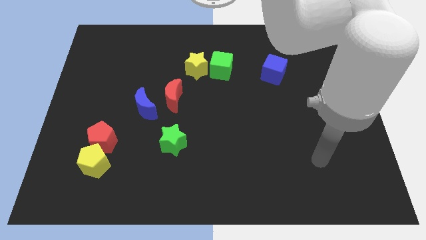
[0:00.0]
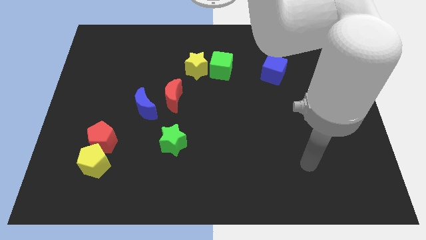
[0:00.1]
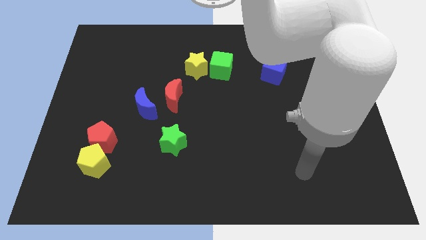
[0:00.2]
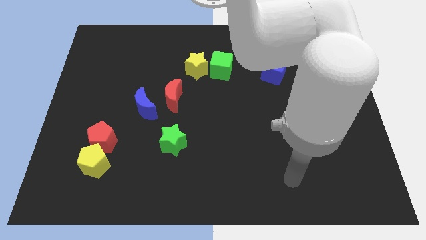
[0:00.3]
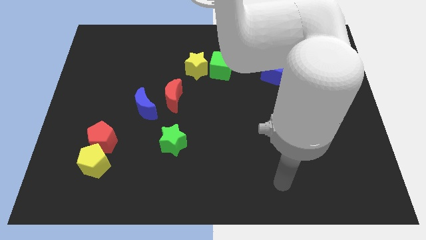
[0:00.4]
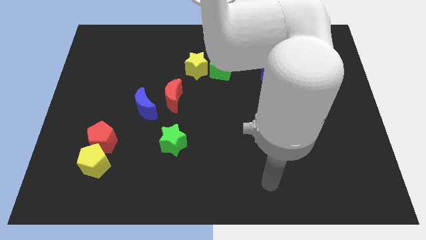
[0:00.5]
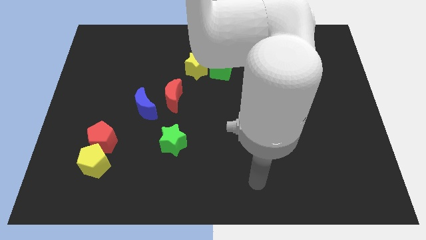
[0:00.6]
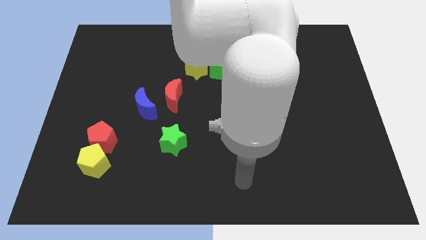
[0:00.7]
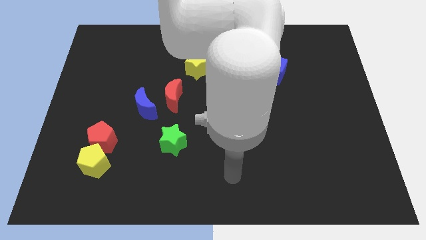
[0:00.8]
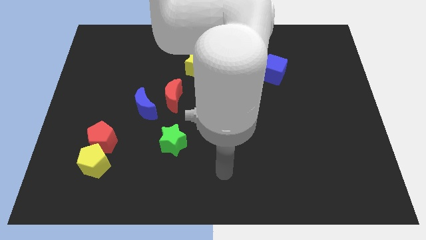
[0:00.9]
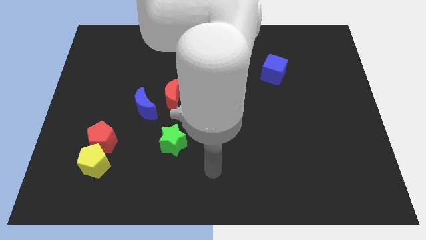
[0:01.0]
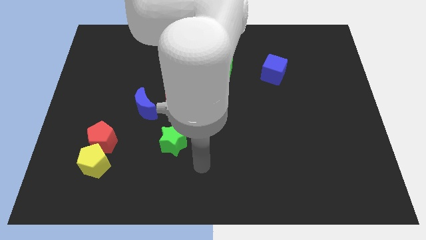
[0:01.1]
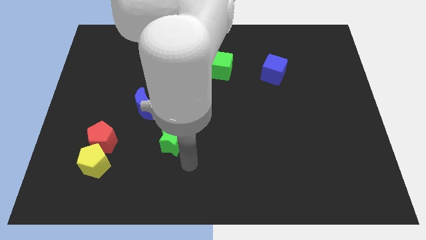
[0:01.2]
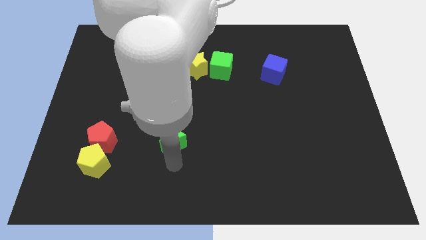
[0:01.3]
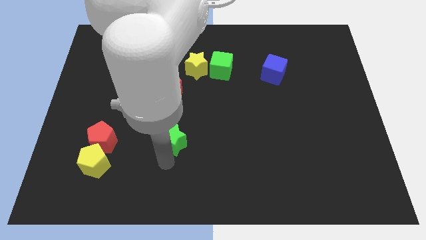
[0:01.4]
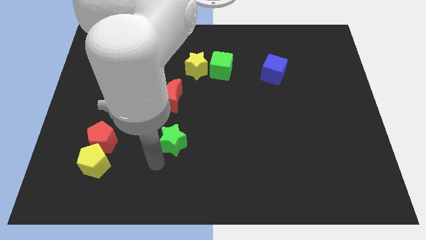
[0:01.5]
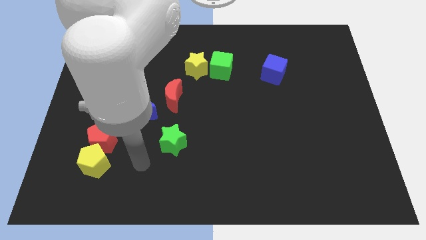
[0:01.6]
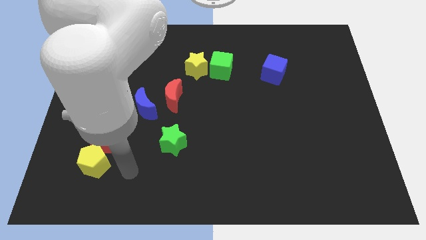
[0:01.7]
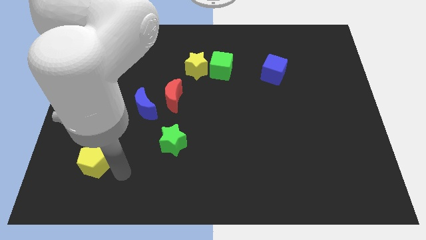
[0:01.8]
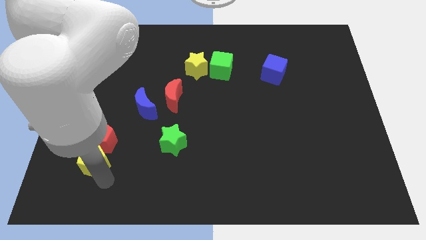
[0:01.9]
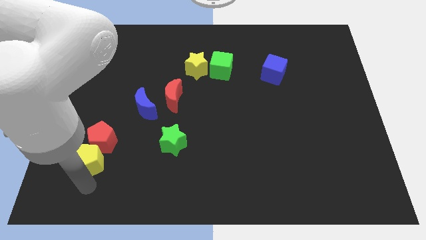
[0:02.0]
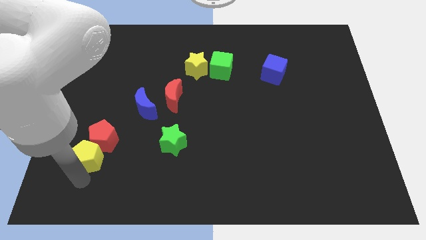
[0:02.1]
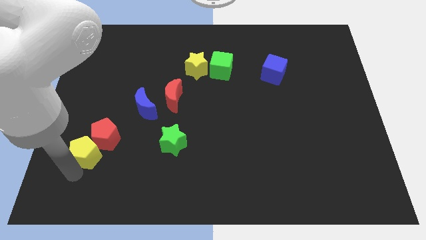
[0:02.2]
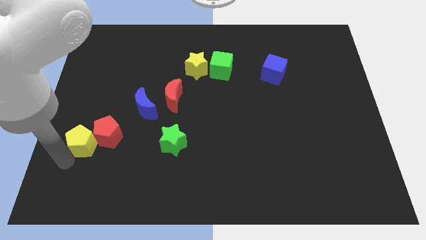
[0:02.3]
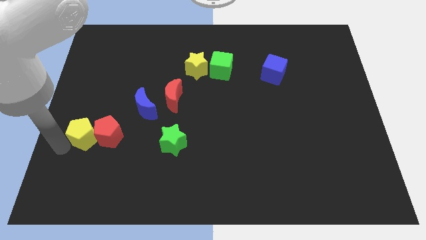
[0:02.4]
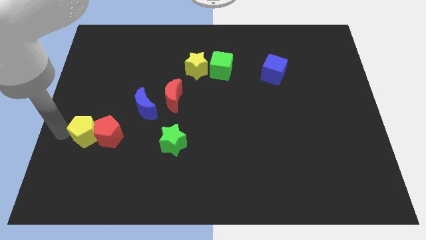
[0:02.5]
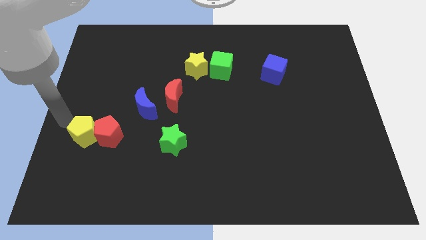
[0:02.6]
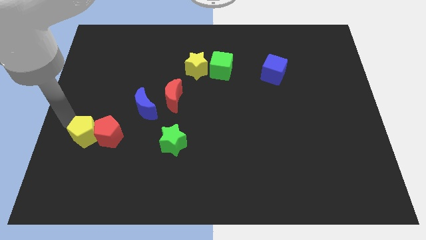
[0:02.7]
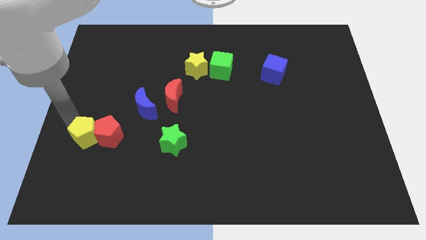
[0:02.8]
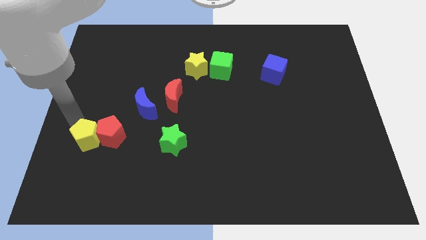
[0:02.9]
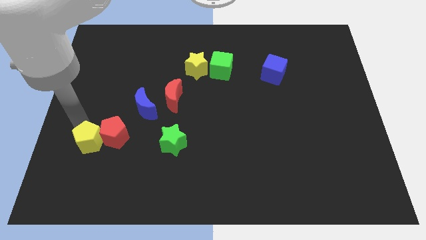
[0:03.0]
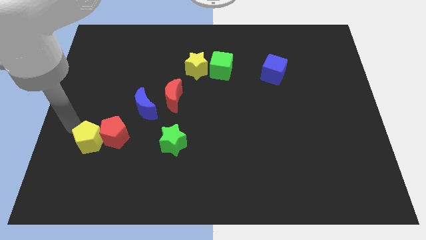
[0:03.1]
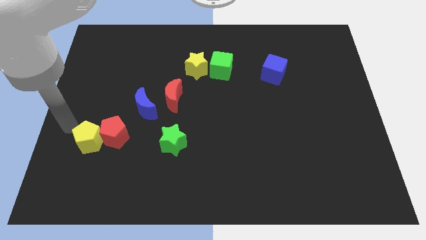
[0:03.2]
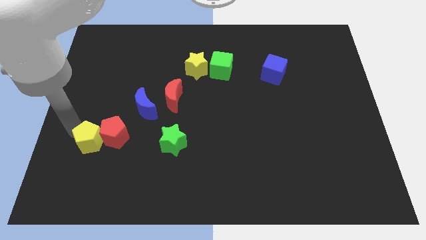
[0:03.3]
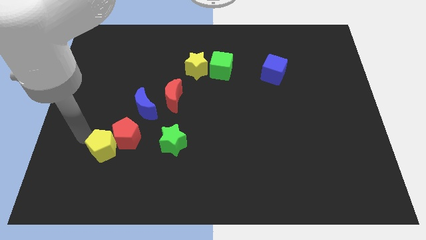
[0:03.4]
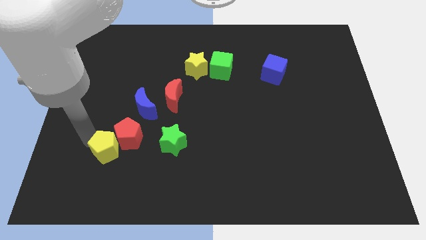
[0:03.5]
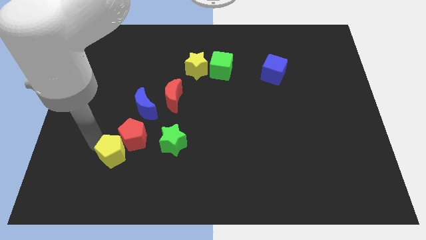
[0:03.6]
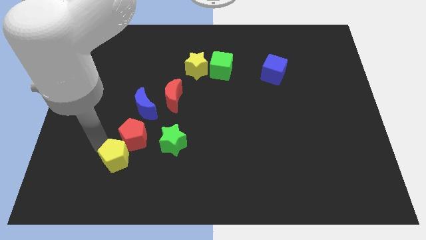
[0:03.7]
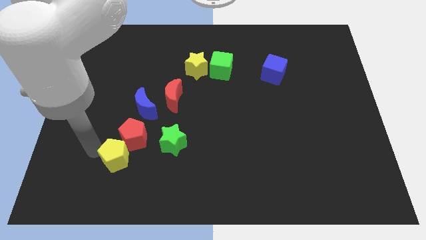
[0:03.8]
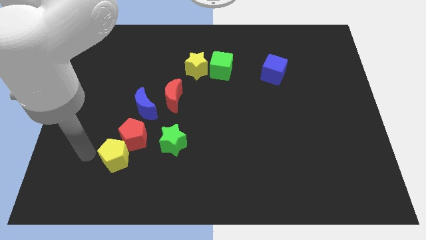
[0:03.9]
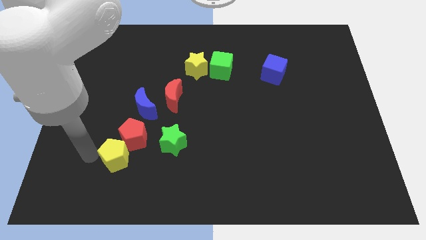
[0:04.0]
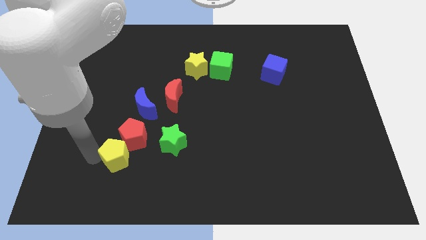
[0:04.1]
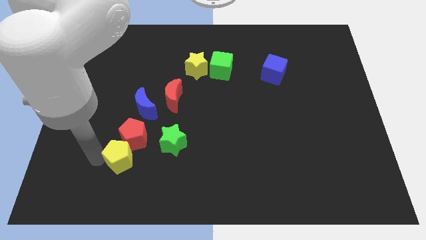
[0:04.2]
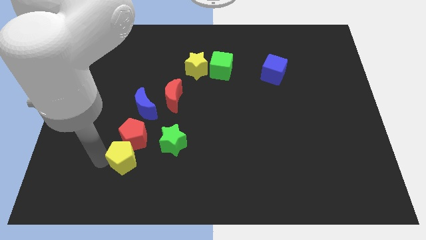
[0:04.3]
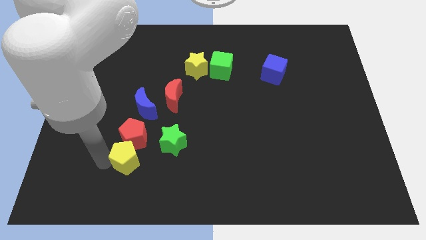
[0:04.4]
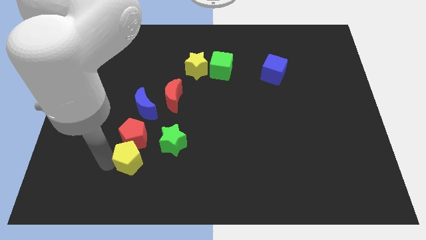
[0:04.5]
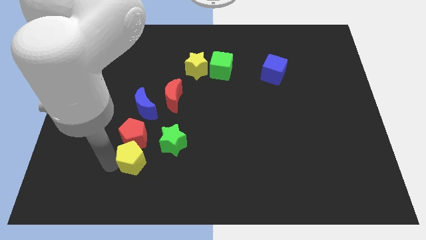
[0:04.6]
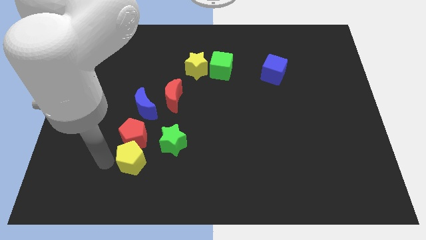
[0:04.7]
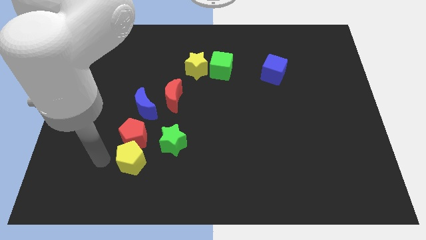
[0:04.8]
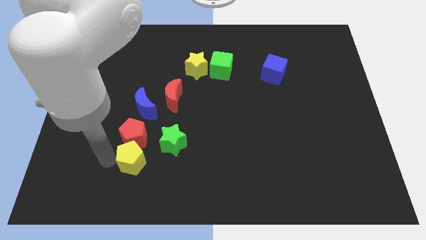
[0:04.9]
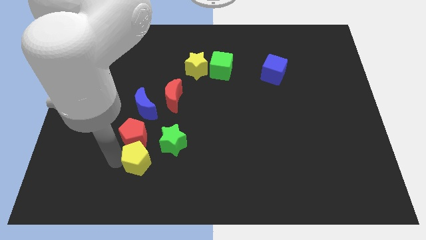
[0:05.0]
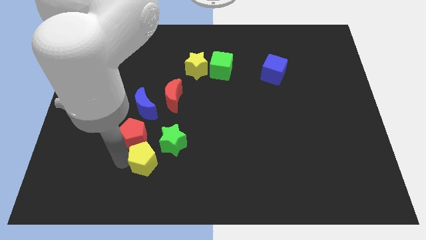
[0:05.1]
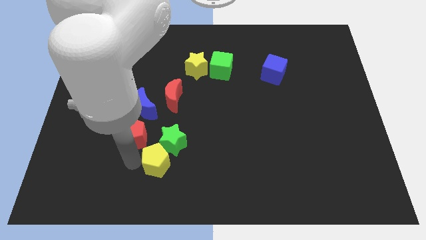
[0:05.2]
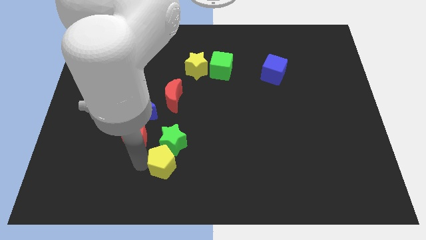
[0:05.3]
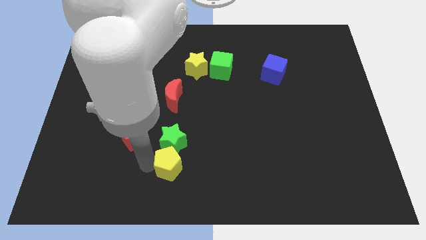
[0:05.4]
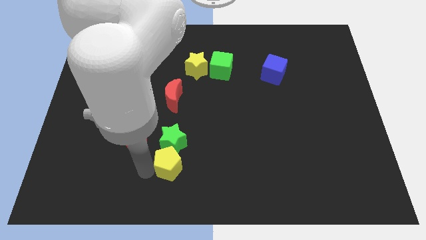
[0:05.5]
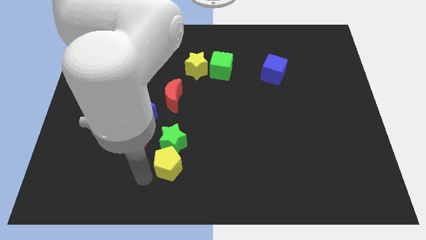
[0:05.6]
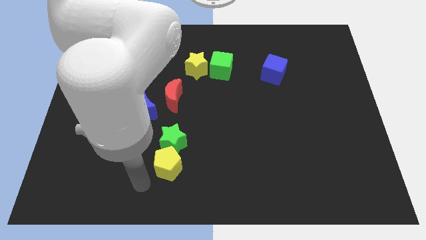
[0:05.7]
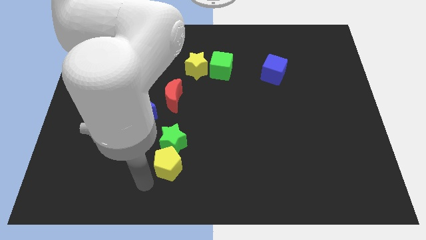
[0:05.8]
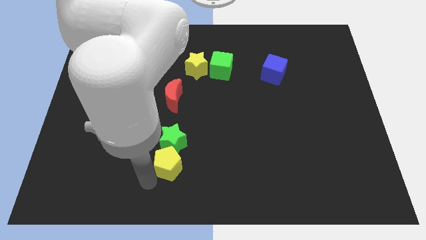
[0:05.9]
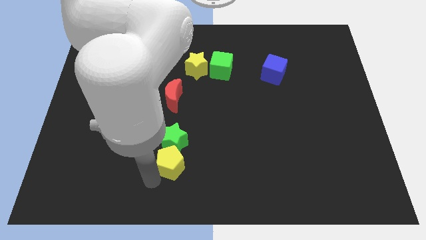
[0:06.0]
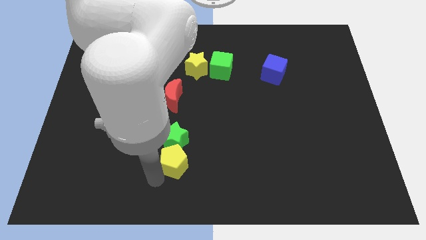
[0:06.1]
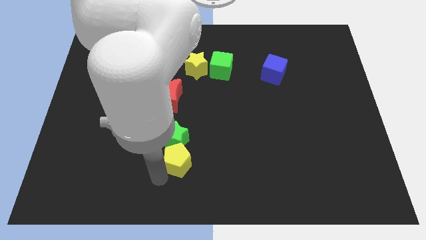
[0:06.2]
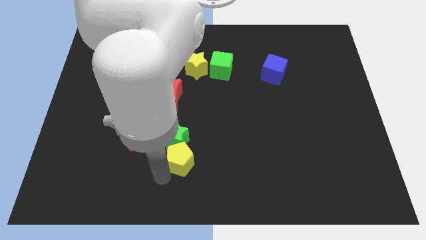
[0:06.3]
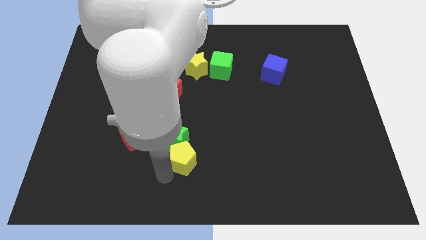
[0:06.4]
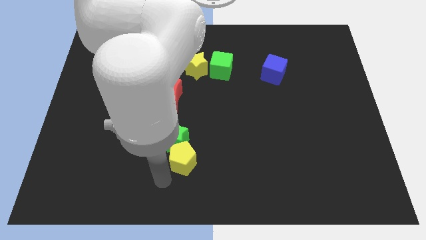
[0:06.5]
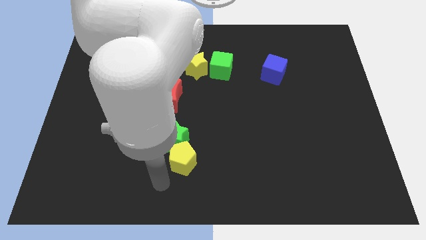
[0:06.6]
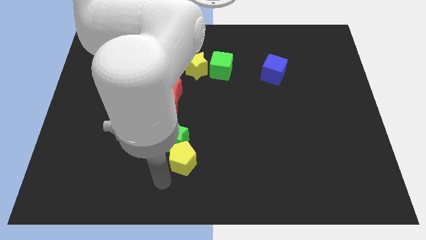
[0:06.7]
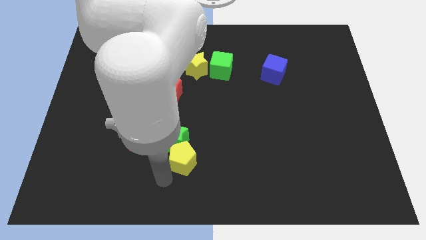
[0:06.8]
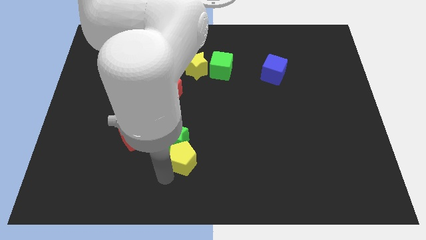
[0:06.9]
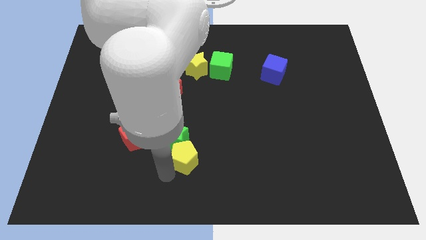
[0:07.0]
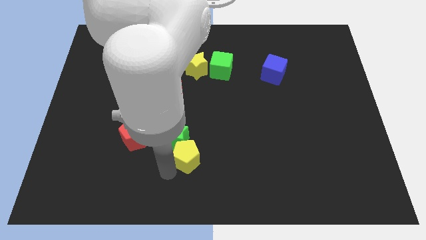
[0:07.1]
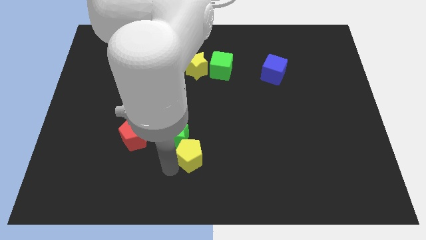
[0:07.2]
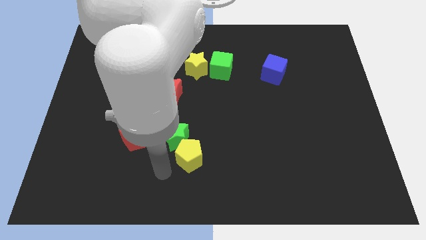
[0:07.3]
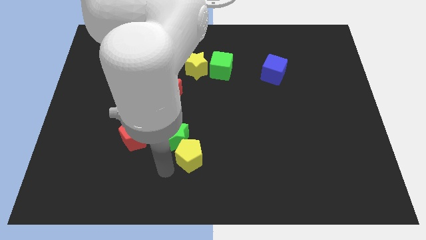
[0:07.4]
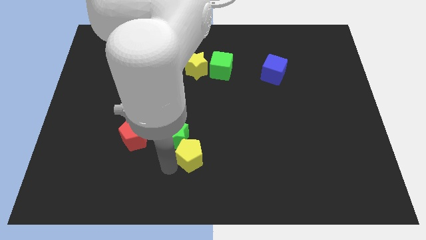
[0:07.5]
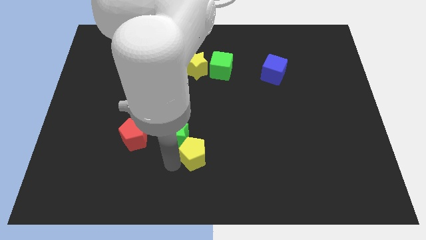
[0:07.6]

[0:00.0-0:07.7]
move the yellow pentagon to the right side of the green star
